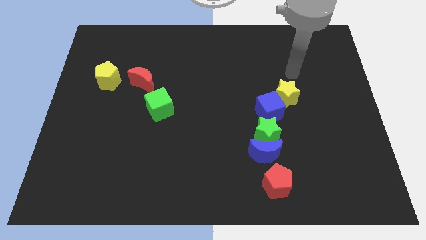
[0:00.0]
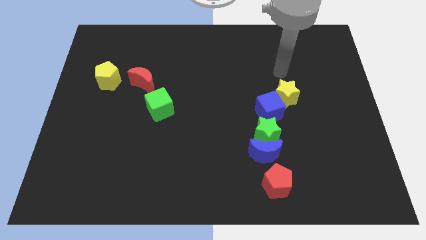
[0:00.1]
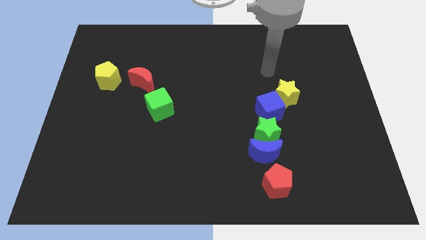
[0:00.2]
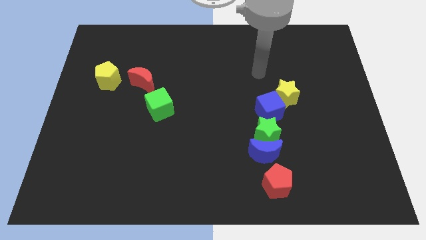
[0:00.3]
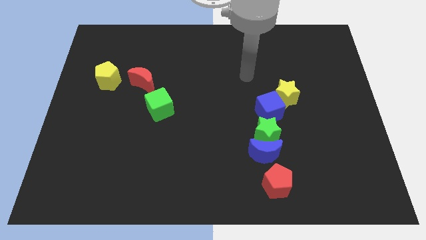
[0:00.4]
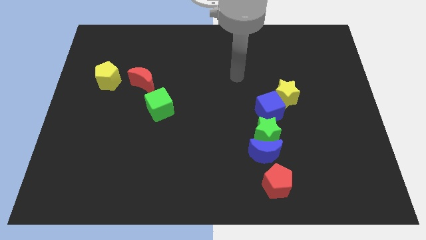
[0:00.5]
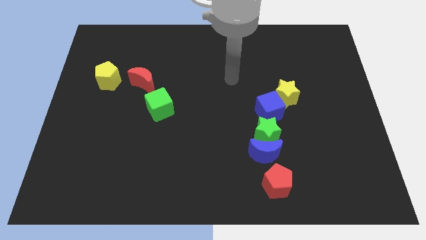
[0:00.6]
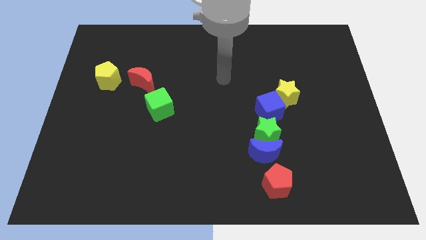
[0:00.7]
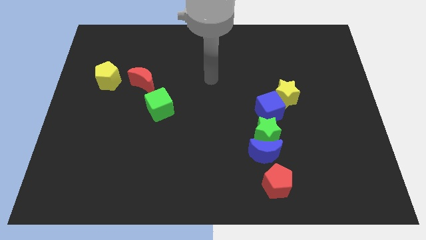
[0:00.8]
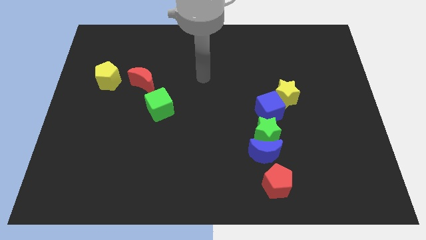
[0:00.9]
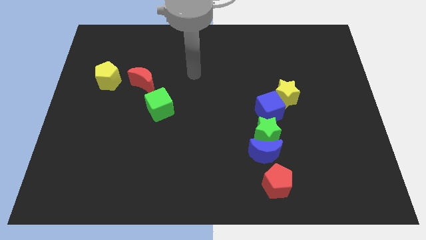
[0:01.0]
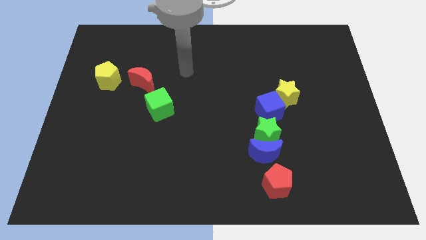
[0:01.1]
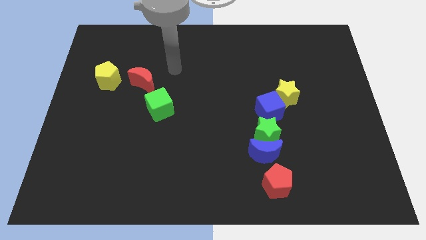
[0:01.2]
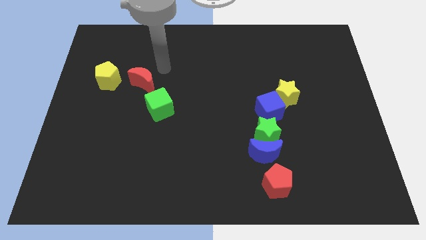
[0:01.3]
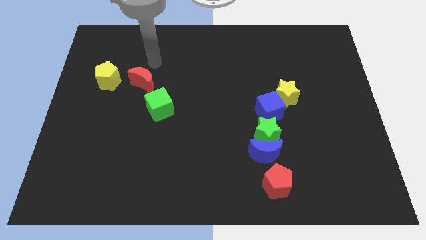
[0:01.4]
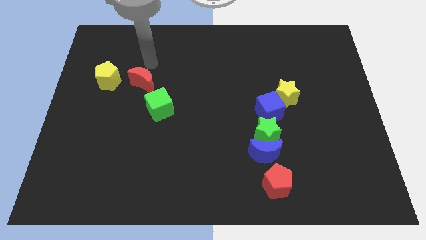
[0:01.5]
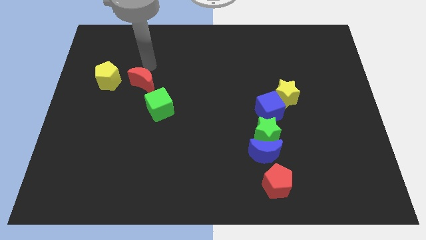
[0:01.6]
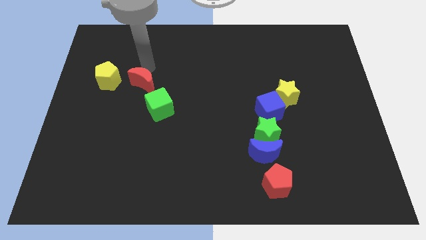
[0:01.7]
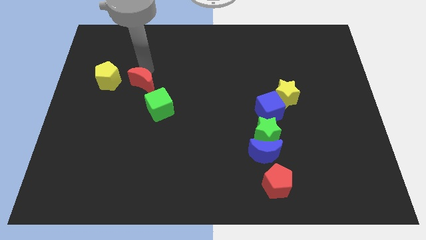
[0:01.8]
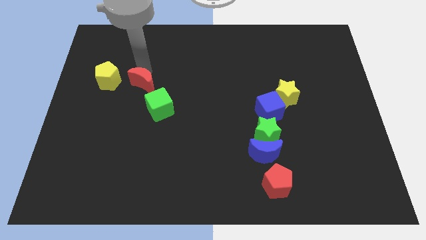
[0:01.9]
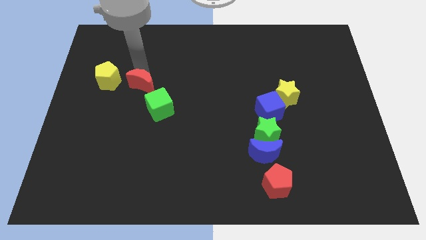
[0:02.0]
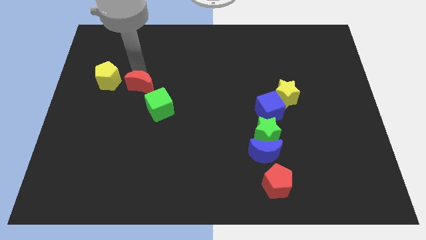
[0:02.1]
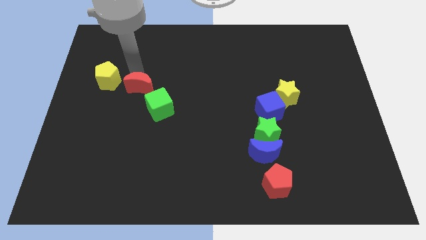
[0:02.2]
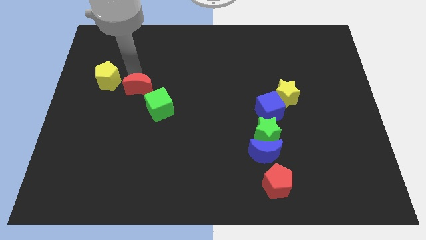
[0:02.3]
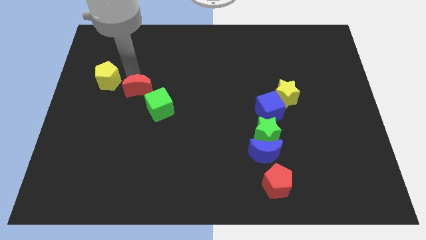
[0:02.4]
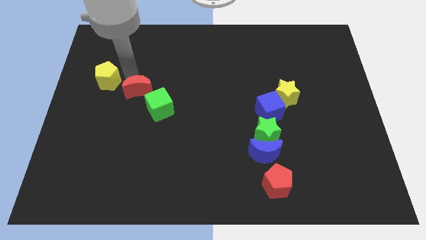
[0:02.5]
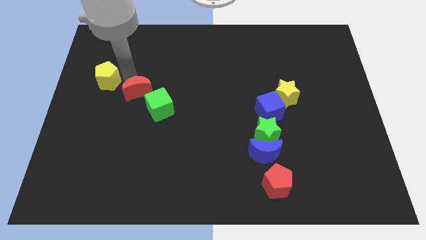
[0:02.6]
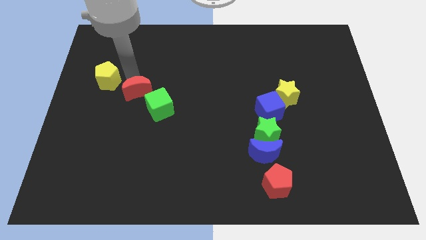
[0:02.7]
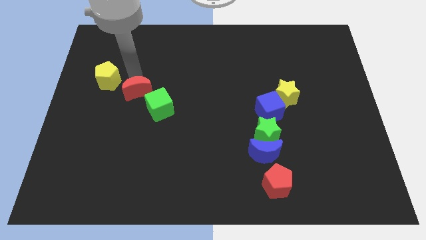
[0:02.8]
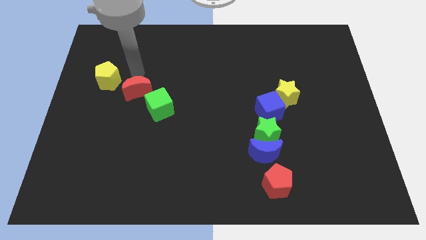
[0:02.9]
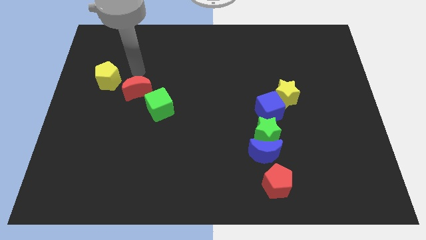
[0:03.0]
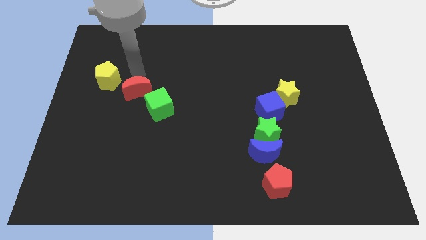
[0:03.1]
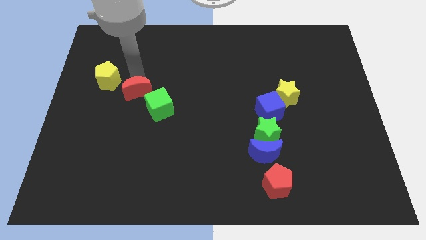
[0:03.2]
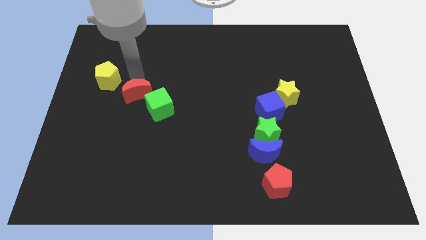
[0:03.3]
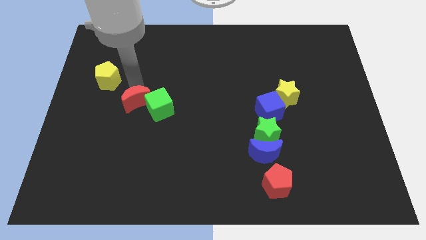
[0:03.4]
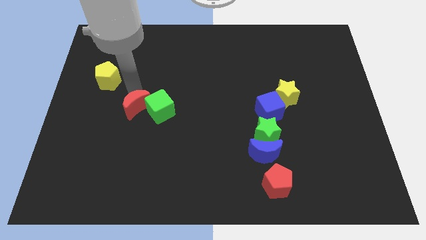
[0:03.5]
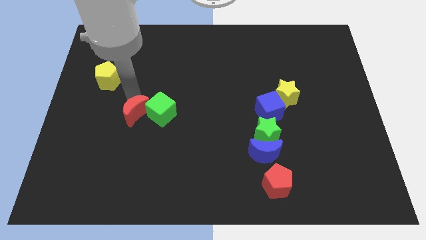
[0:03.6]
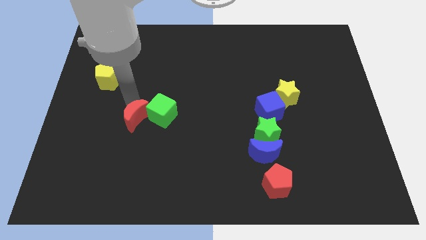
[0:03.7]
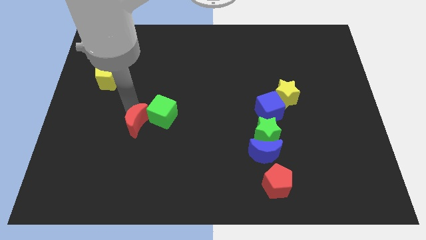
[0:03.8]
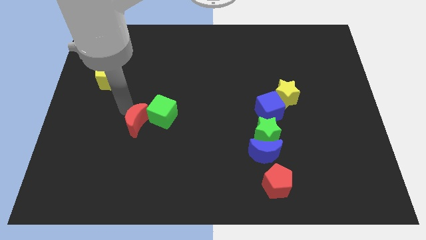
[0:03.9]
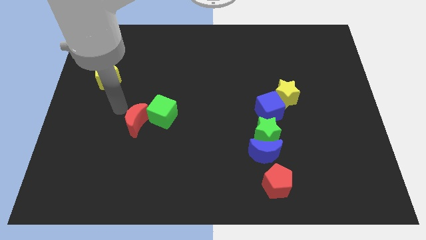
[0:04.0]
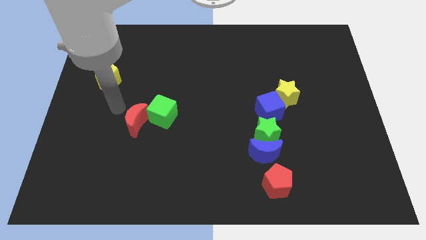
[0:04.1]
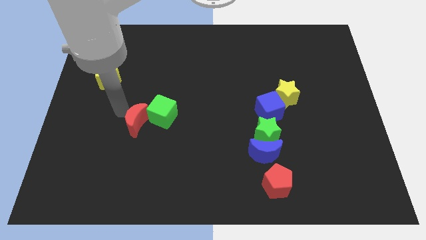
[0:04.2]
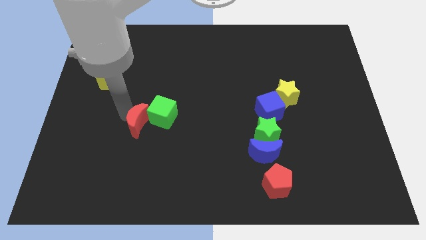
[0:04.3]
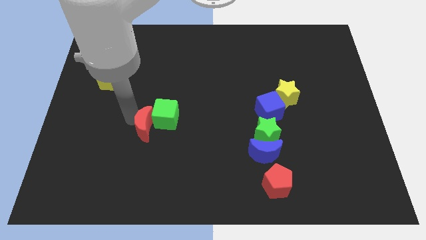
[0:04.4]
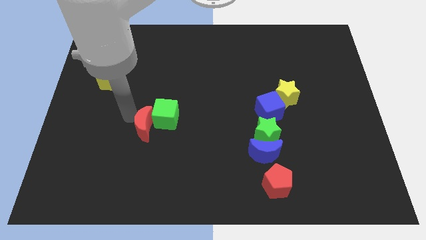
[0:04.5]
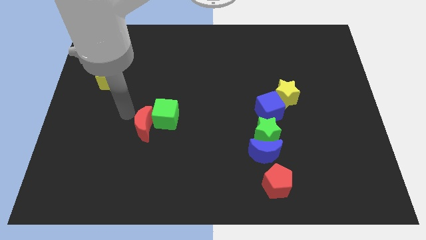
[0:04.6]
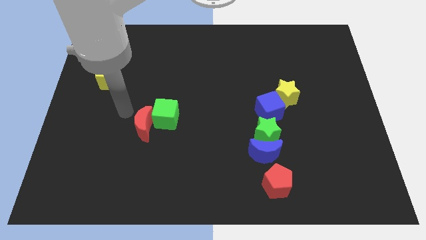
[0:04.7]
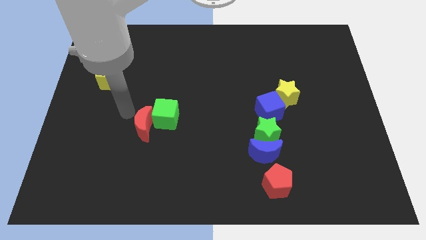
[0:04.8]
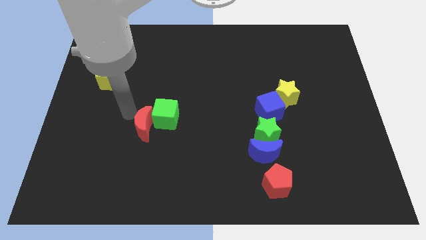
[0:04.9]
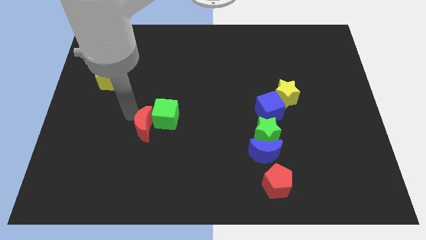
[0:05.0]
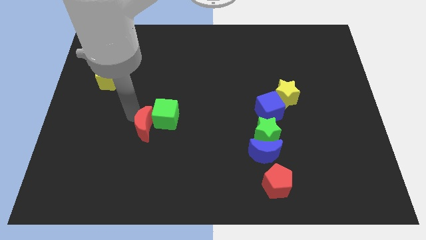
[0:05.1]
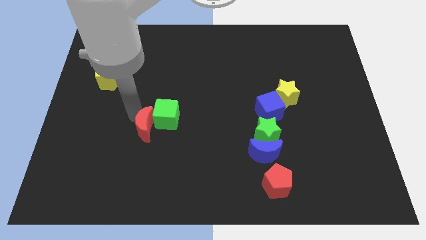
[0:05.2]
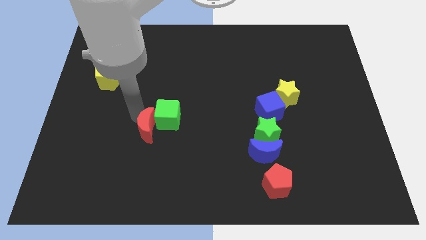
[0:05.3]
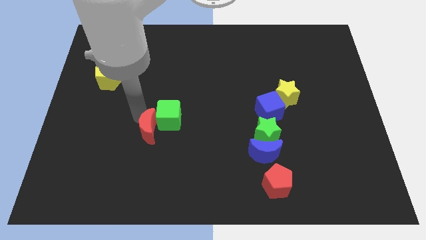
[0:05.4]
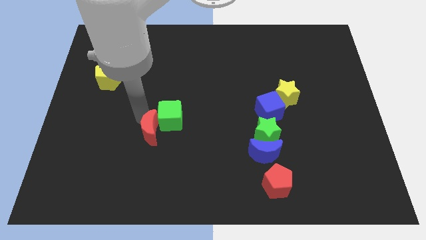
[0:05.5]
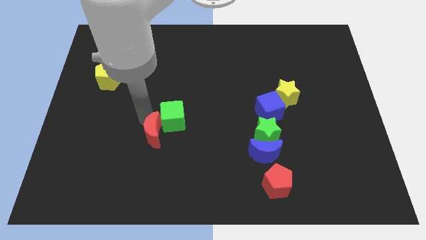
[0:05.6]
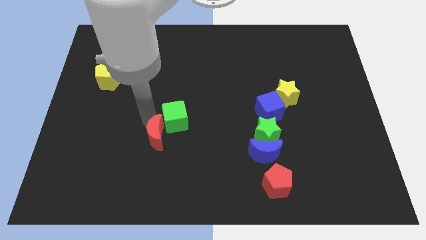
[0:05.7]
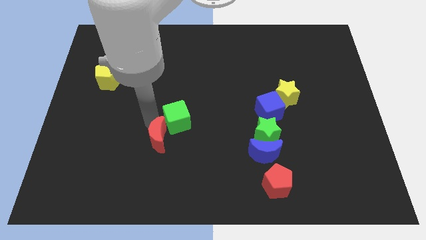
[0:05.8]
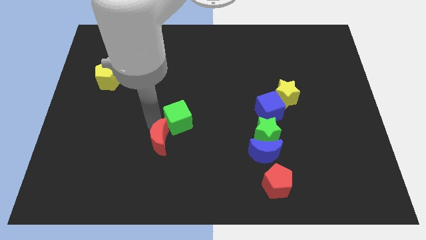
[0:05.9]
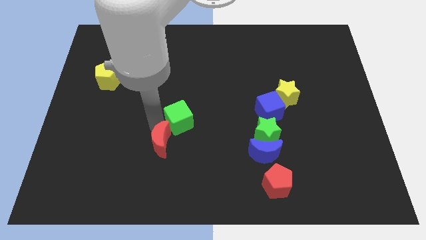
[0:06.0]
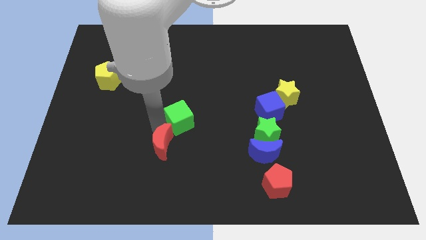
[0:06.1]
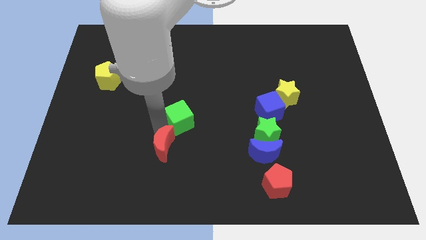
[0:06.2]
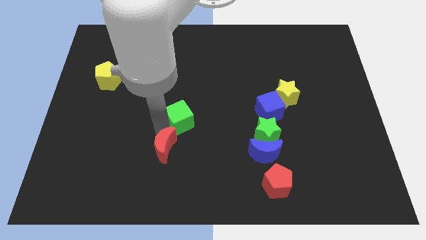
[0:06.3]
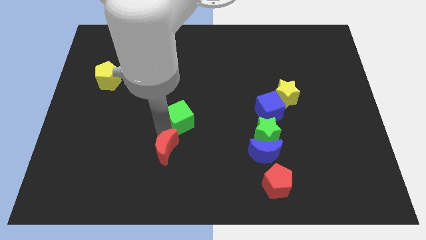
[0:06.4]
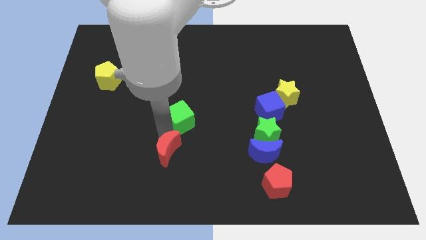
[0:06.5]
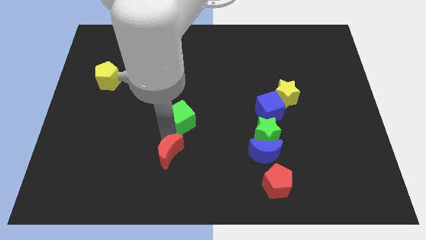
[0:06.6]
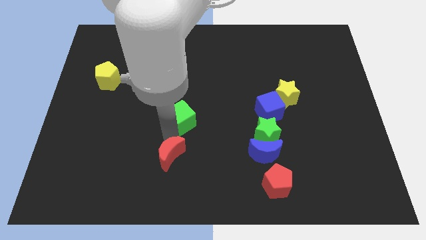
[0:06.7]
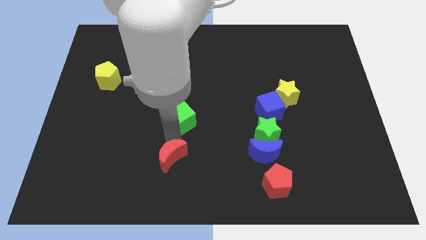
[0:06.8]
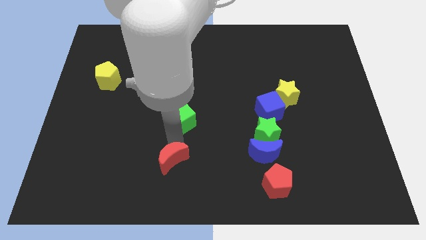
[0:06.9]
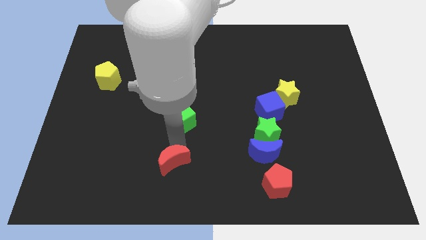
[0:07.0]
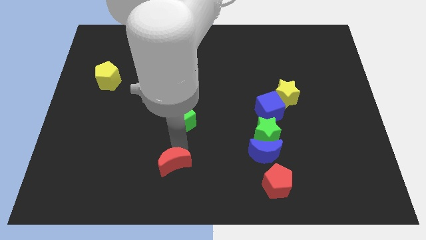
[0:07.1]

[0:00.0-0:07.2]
move the red moon to the bottom side
